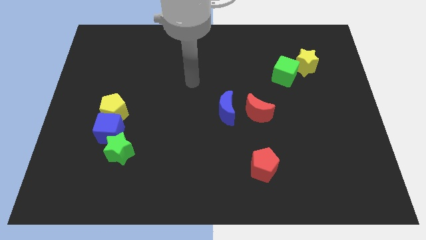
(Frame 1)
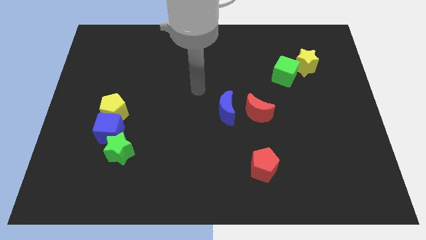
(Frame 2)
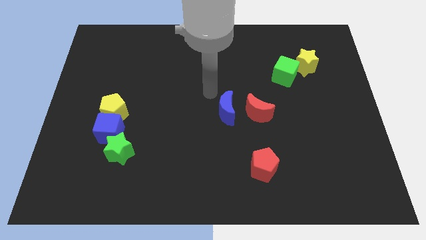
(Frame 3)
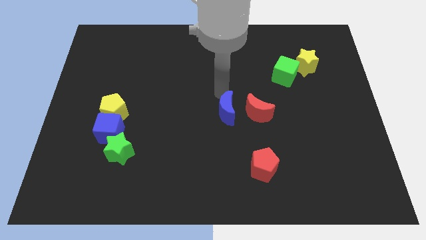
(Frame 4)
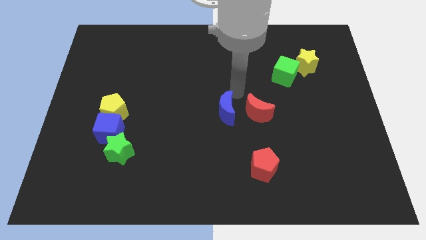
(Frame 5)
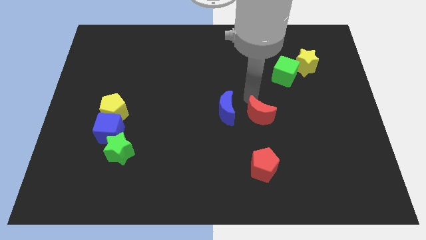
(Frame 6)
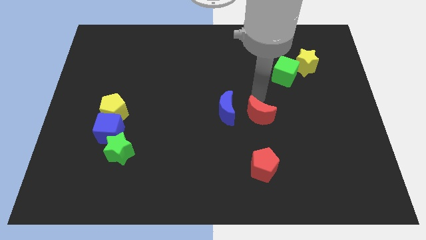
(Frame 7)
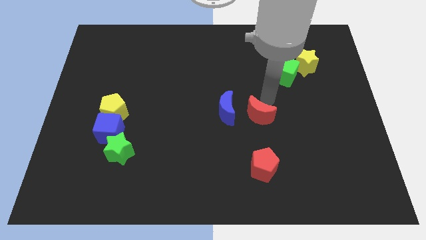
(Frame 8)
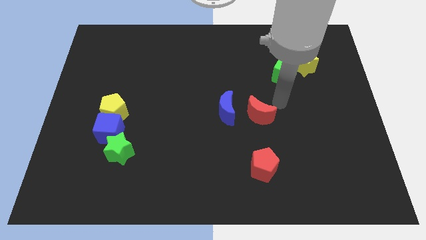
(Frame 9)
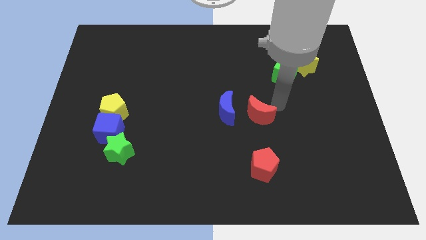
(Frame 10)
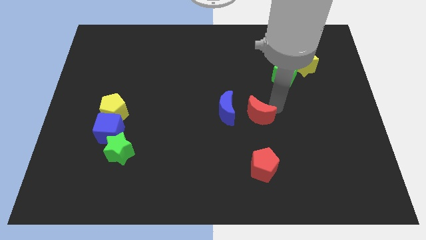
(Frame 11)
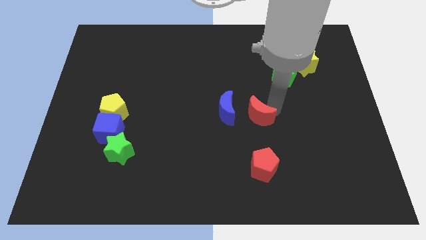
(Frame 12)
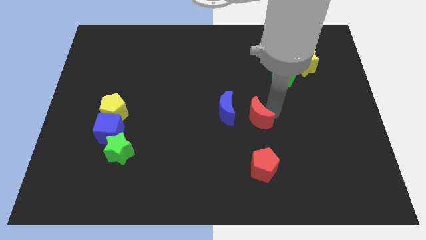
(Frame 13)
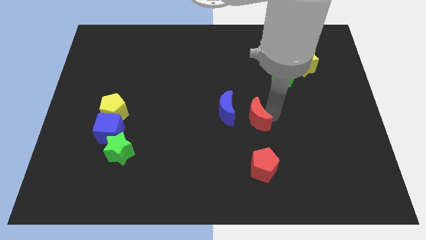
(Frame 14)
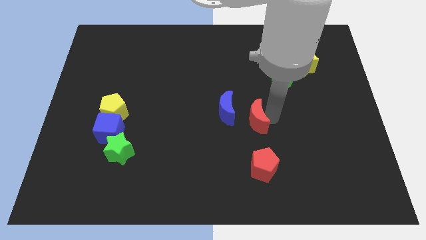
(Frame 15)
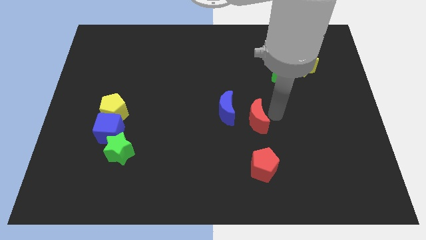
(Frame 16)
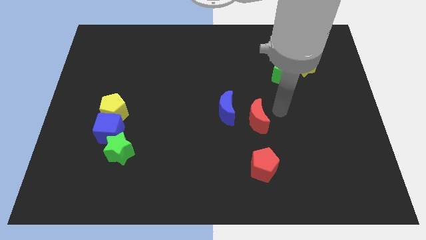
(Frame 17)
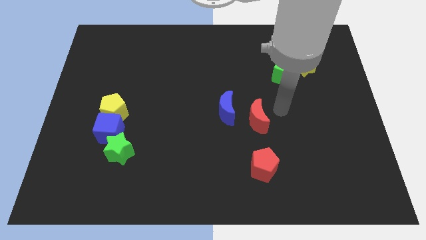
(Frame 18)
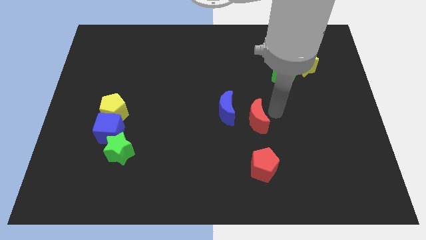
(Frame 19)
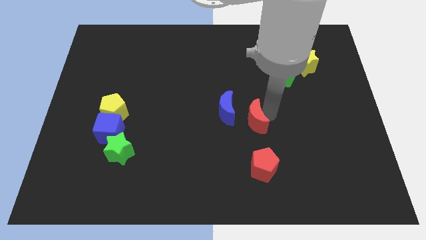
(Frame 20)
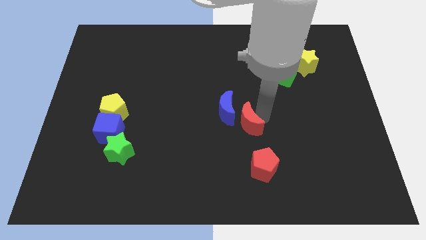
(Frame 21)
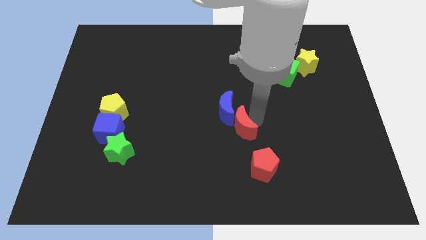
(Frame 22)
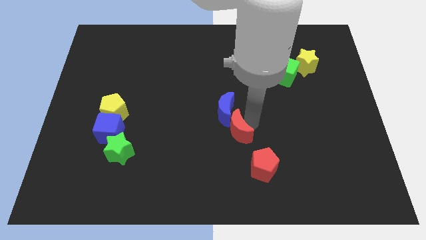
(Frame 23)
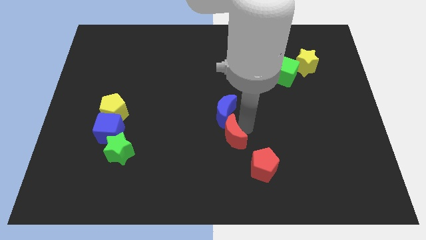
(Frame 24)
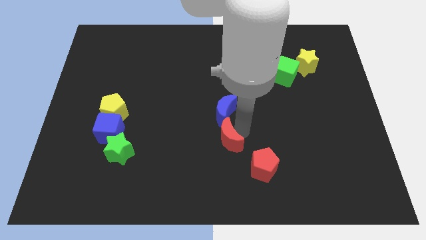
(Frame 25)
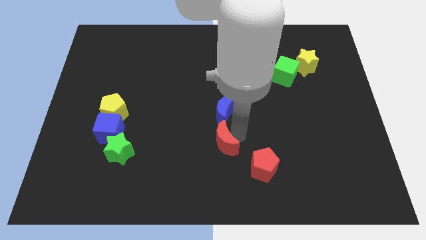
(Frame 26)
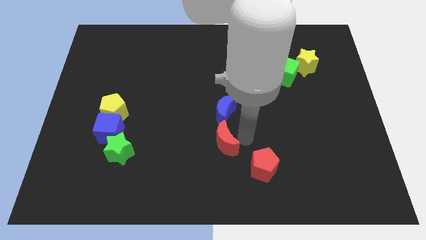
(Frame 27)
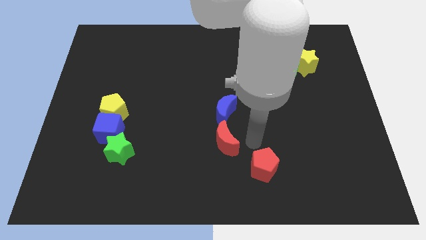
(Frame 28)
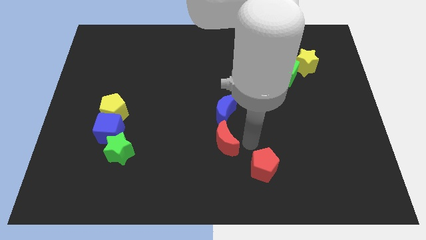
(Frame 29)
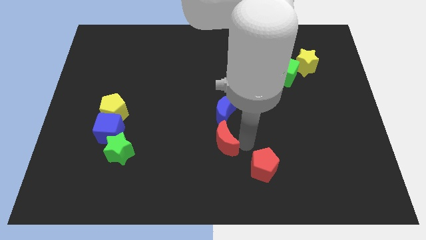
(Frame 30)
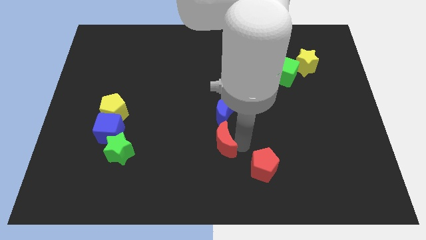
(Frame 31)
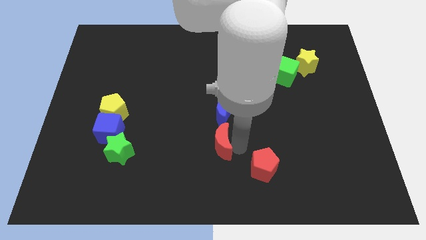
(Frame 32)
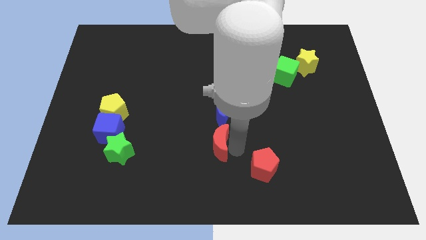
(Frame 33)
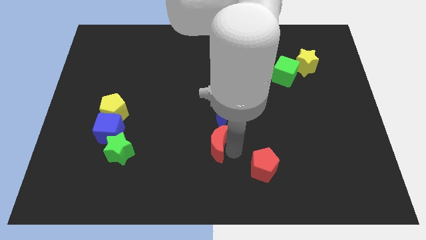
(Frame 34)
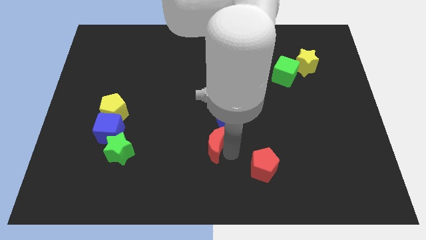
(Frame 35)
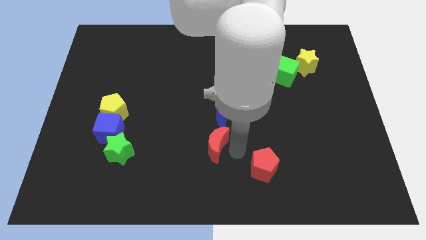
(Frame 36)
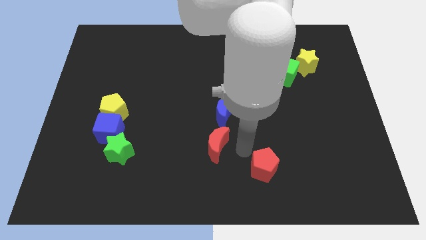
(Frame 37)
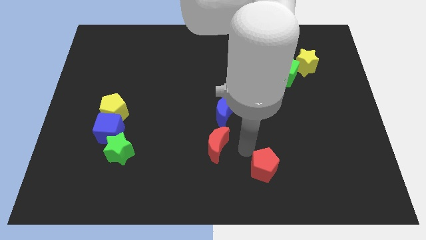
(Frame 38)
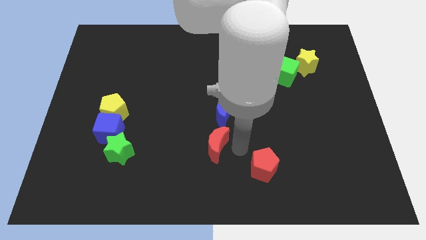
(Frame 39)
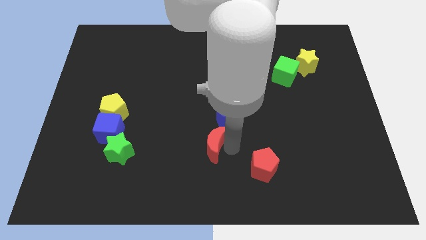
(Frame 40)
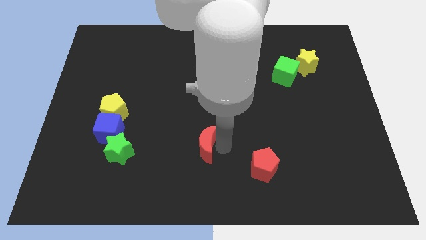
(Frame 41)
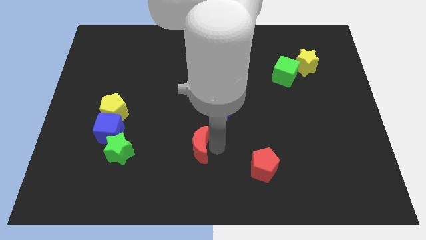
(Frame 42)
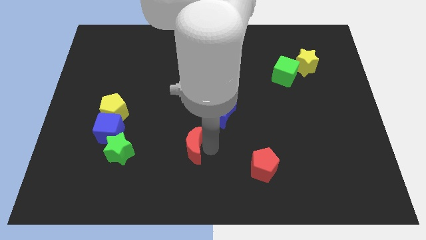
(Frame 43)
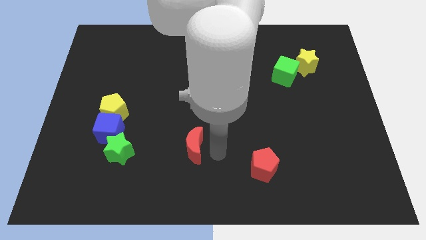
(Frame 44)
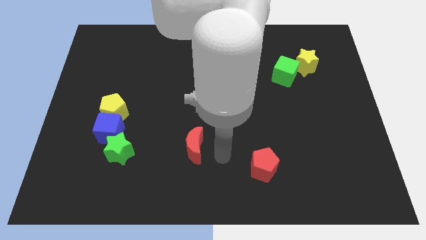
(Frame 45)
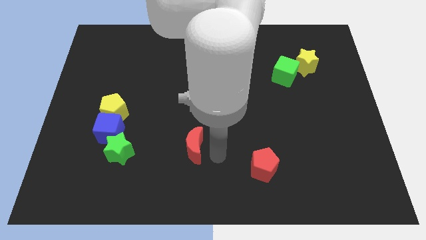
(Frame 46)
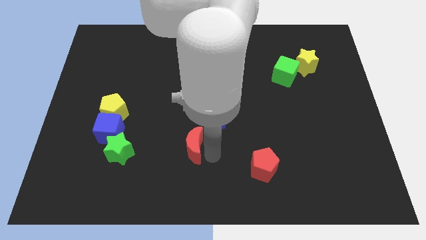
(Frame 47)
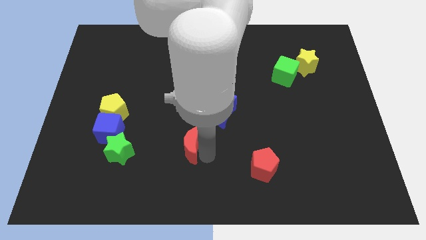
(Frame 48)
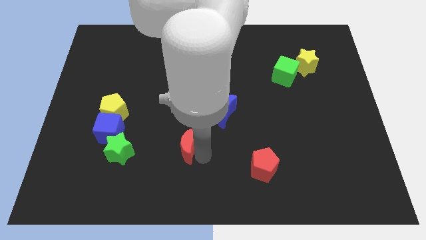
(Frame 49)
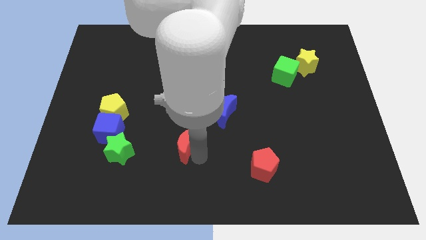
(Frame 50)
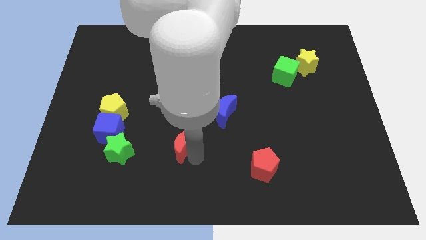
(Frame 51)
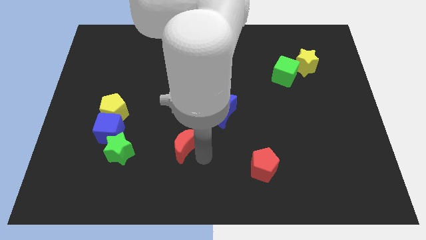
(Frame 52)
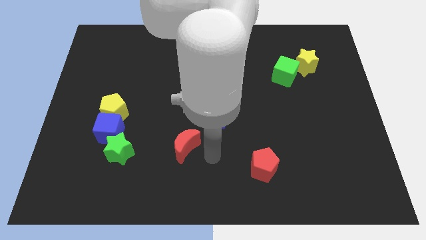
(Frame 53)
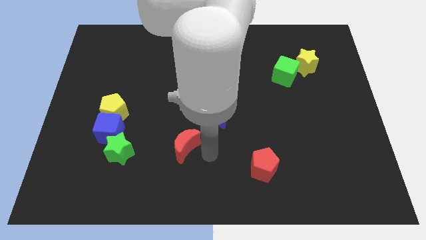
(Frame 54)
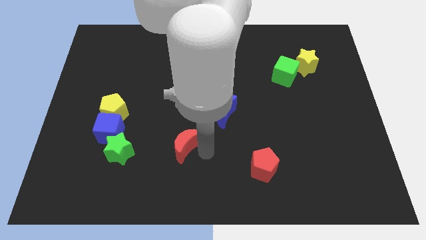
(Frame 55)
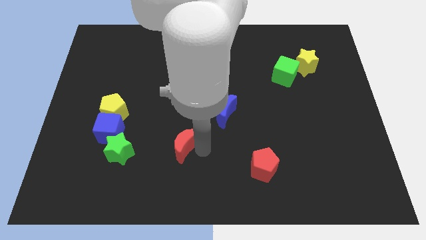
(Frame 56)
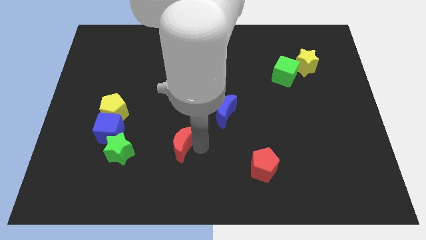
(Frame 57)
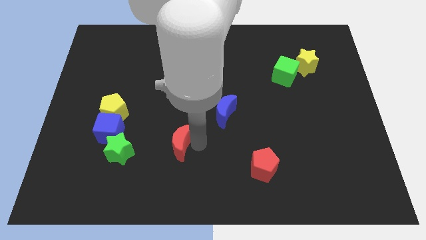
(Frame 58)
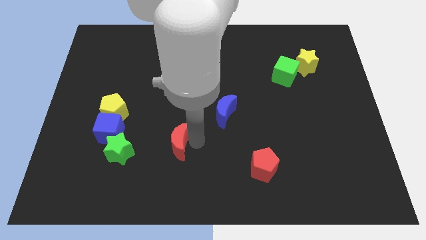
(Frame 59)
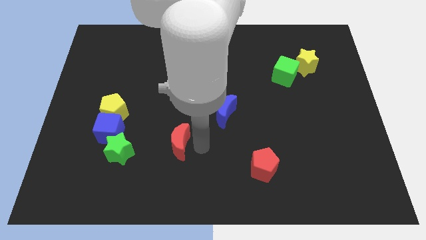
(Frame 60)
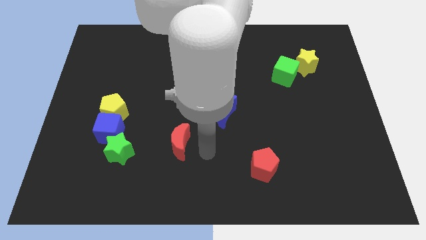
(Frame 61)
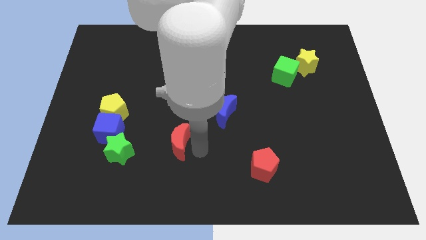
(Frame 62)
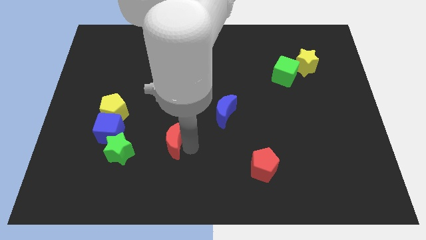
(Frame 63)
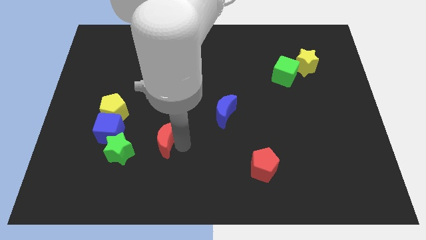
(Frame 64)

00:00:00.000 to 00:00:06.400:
push the red moon to the top right of the green star
